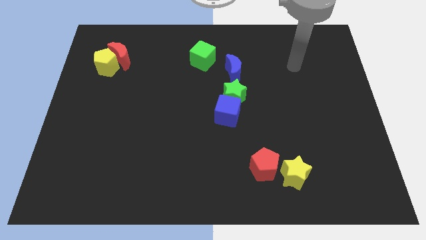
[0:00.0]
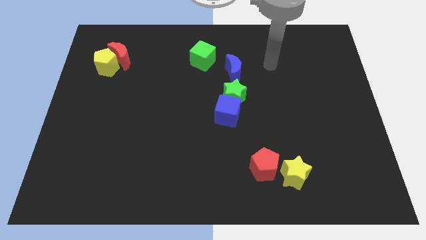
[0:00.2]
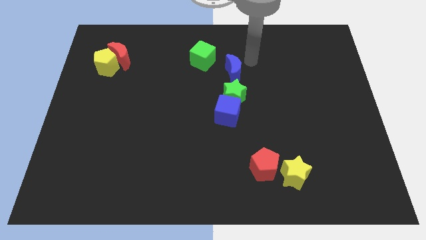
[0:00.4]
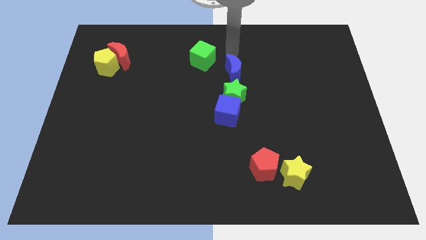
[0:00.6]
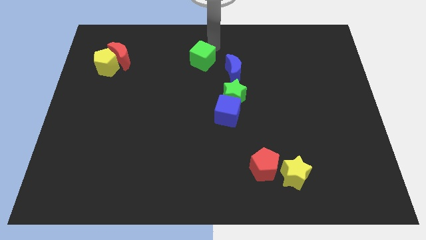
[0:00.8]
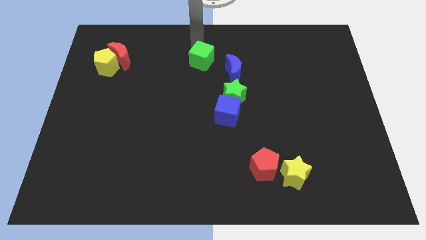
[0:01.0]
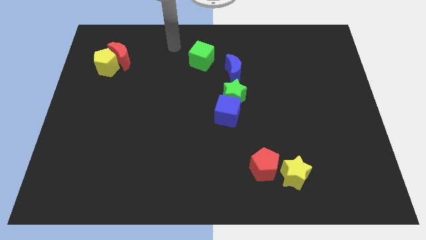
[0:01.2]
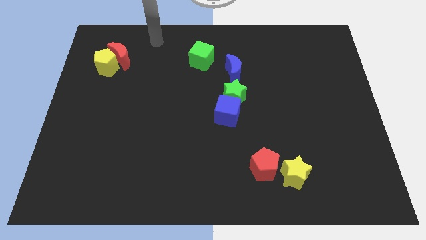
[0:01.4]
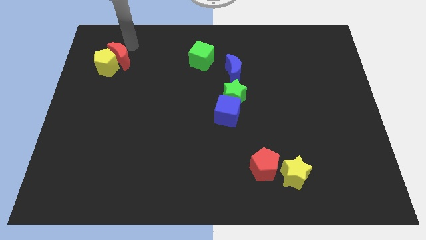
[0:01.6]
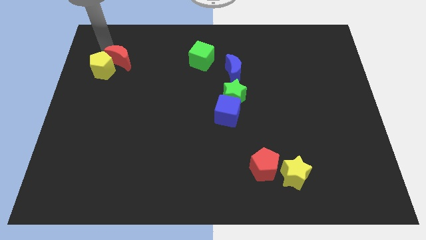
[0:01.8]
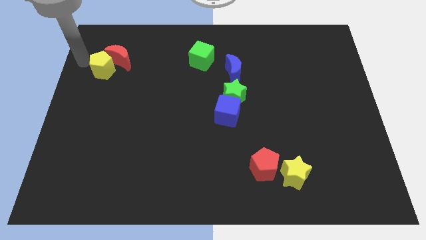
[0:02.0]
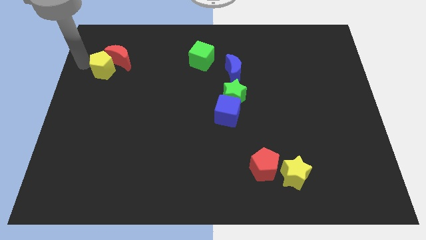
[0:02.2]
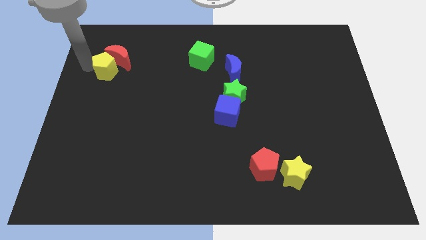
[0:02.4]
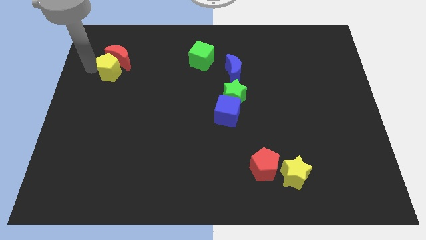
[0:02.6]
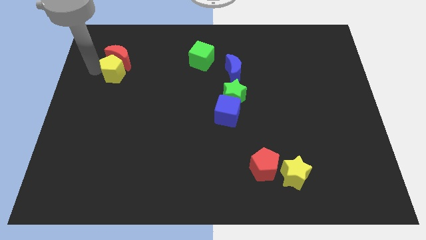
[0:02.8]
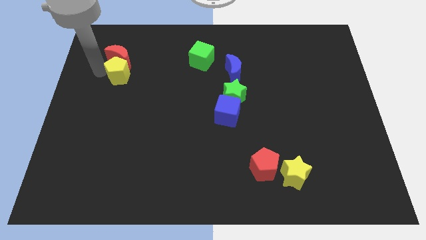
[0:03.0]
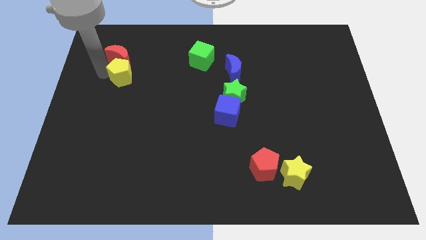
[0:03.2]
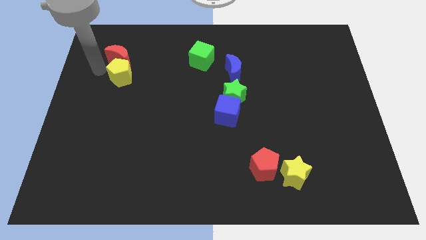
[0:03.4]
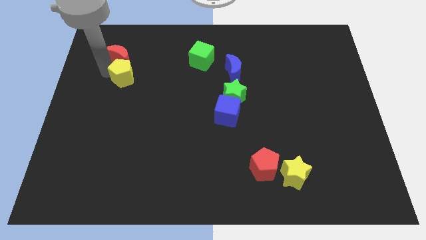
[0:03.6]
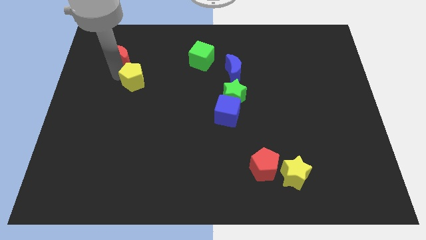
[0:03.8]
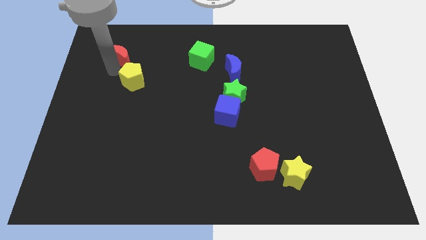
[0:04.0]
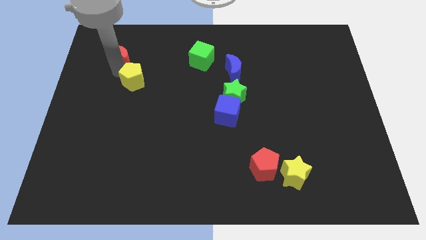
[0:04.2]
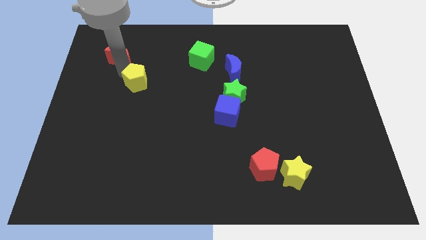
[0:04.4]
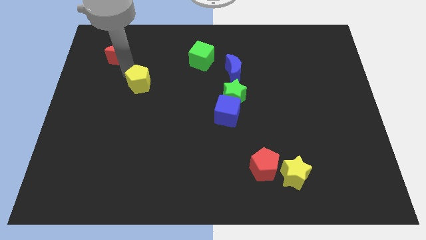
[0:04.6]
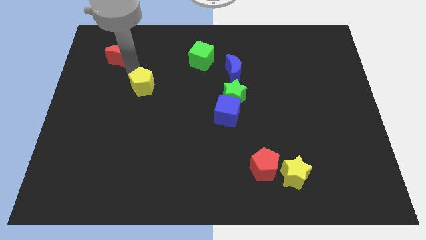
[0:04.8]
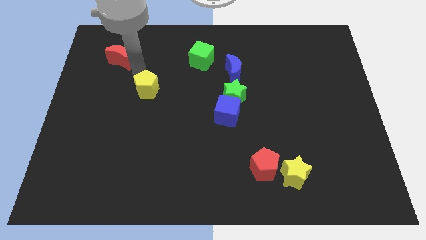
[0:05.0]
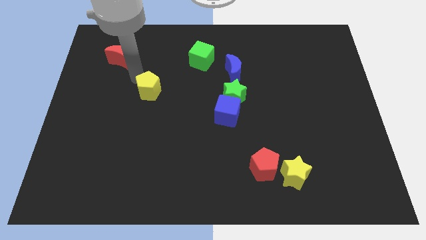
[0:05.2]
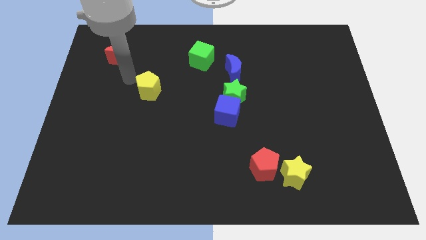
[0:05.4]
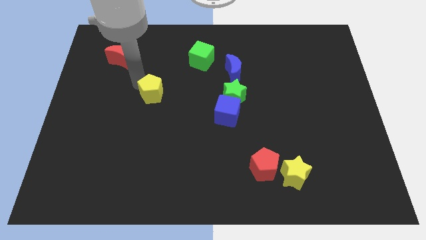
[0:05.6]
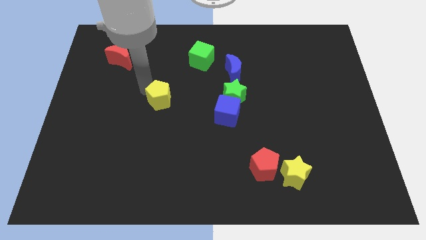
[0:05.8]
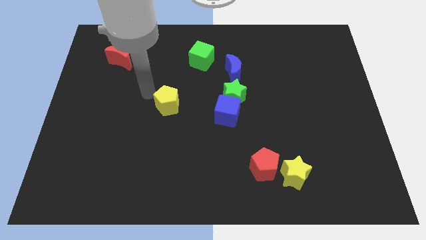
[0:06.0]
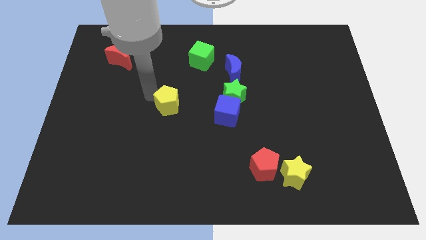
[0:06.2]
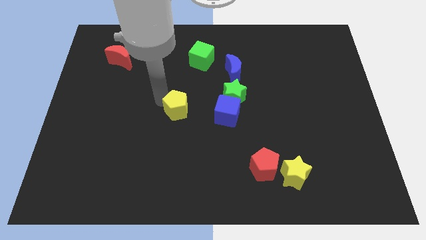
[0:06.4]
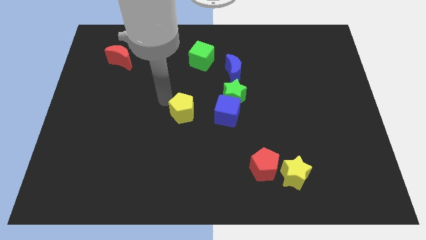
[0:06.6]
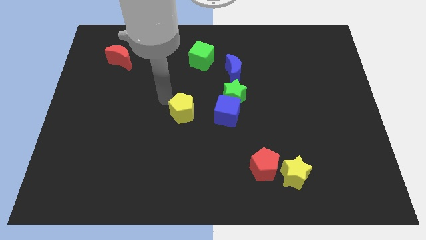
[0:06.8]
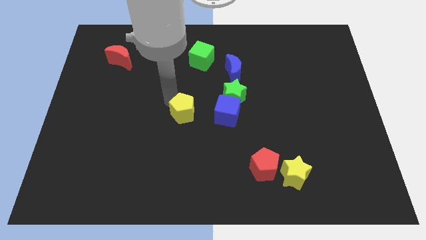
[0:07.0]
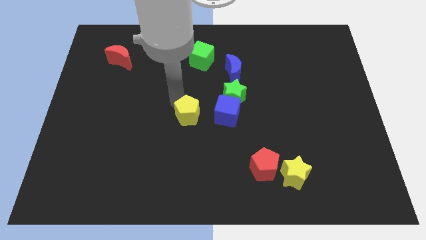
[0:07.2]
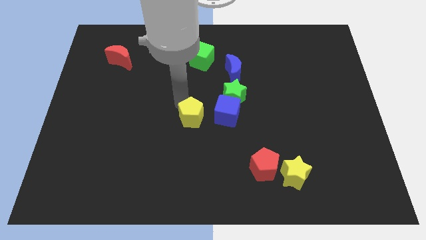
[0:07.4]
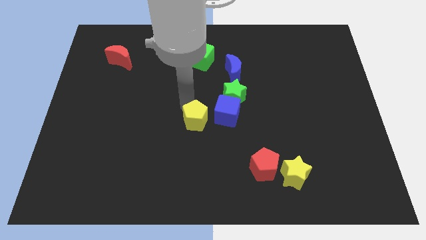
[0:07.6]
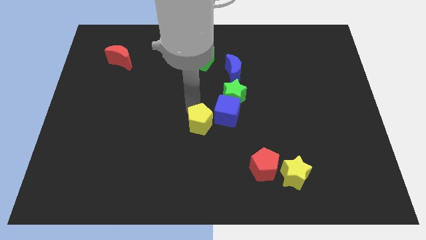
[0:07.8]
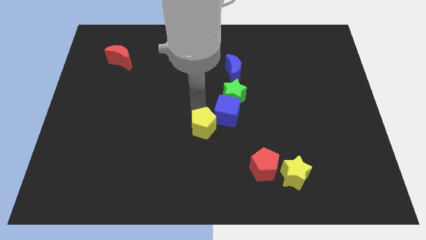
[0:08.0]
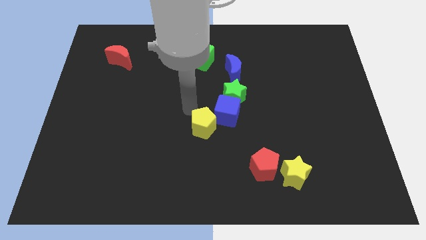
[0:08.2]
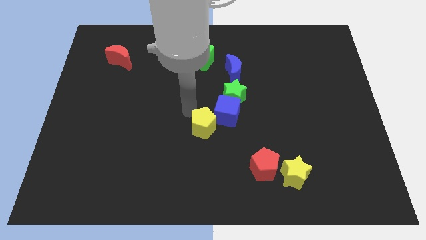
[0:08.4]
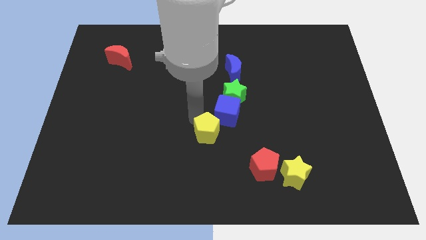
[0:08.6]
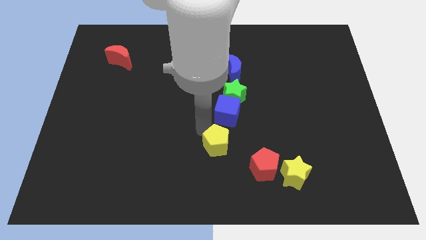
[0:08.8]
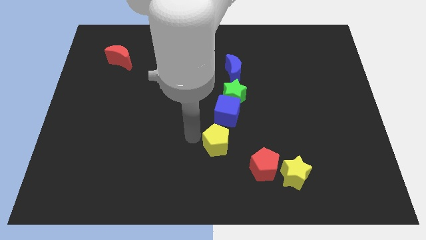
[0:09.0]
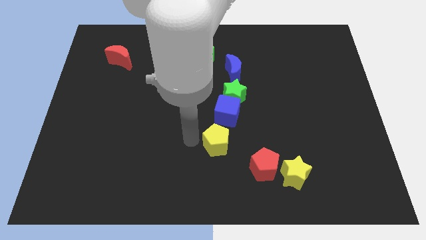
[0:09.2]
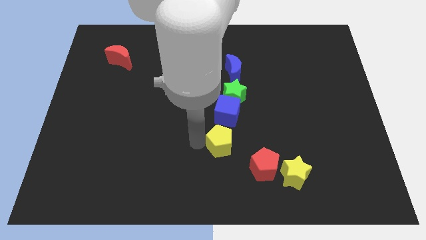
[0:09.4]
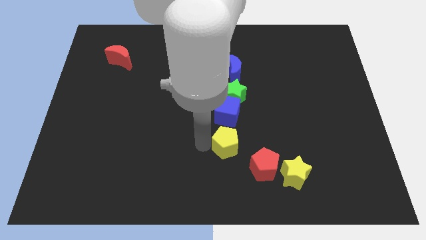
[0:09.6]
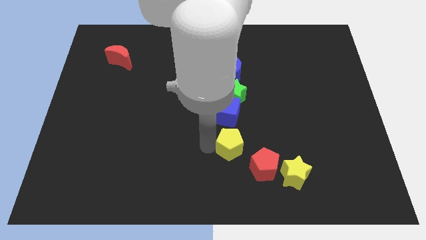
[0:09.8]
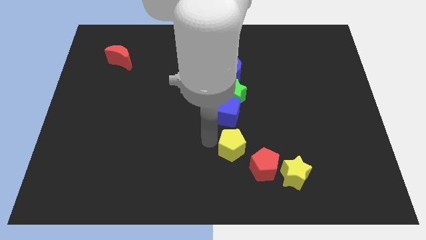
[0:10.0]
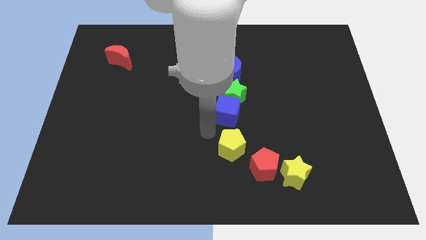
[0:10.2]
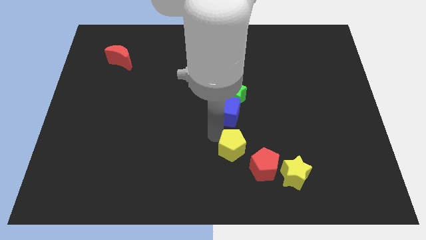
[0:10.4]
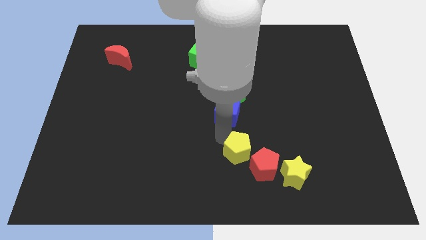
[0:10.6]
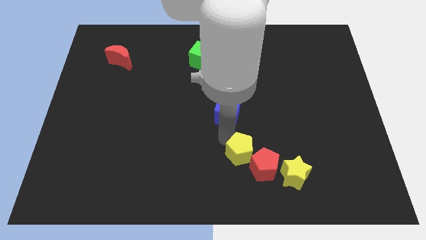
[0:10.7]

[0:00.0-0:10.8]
push the yellow pentagon towards the red pentagon

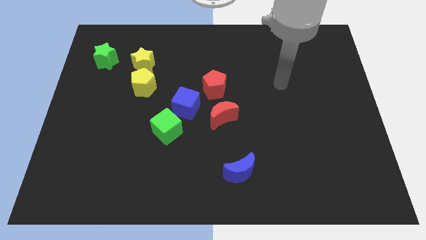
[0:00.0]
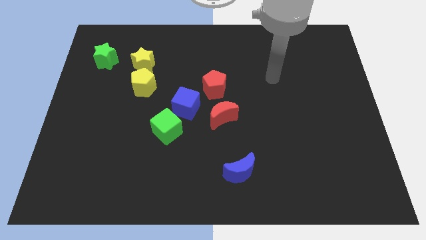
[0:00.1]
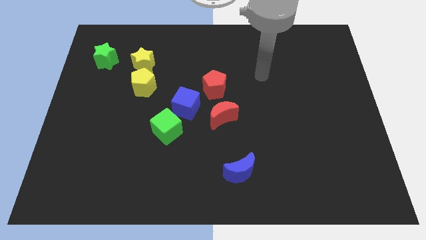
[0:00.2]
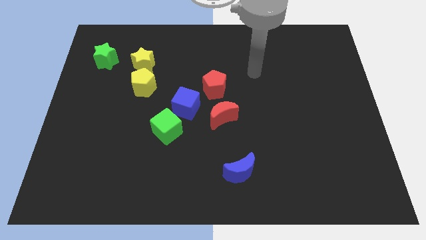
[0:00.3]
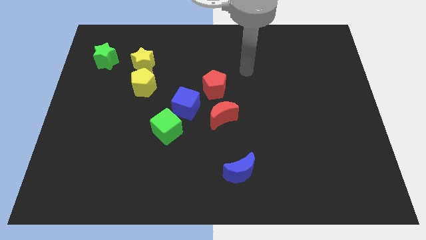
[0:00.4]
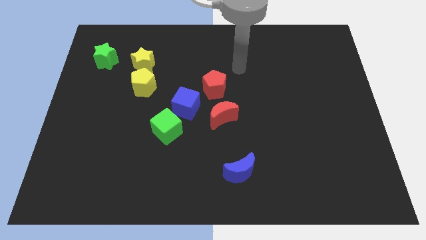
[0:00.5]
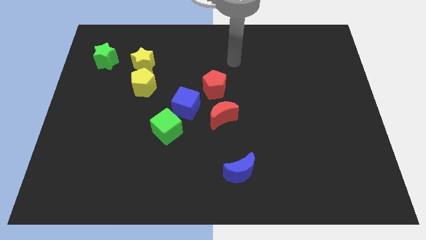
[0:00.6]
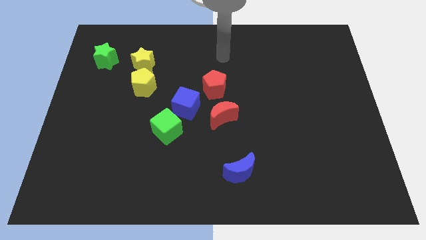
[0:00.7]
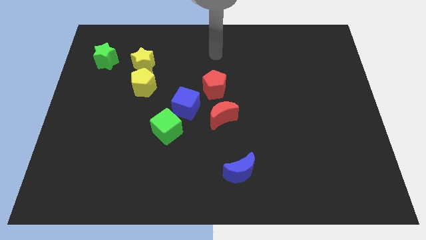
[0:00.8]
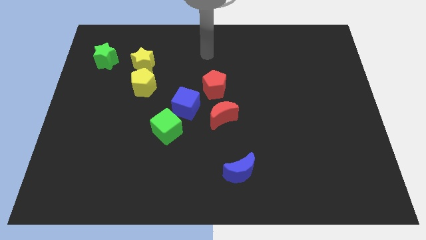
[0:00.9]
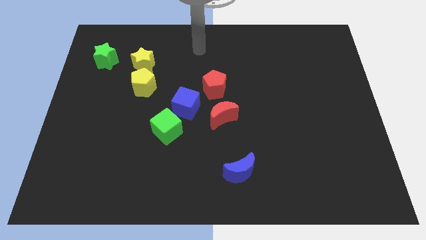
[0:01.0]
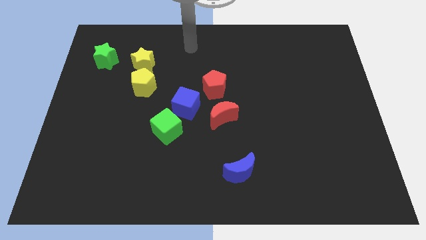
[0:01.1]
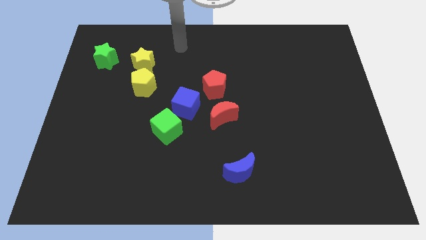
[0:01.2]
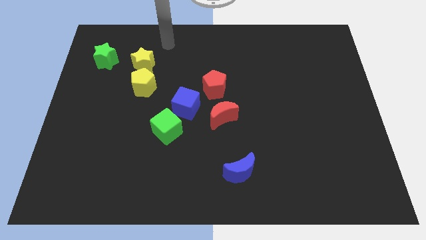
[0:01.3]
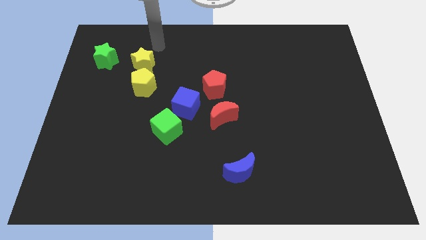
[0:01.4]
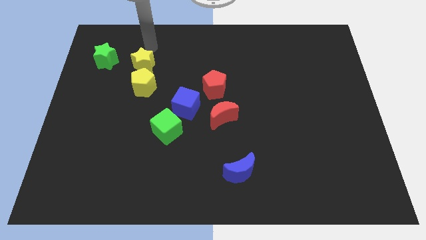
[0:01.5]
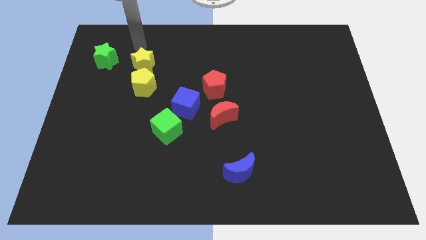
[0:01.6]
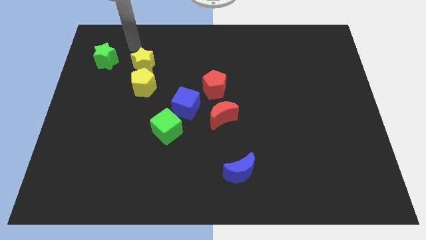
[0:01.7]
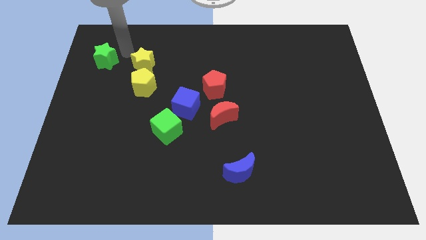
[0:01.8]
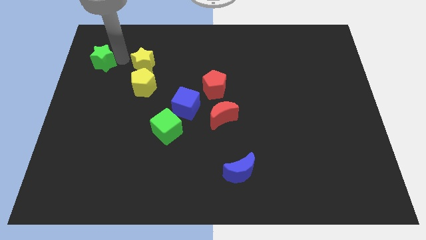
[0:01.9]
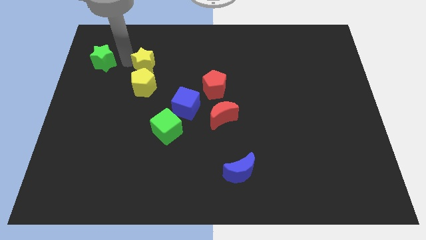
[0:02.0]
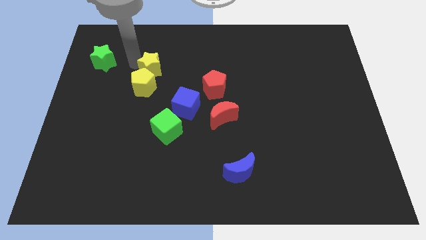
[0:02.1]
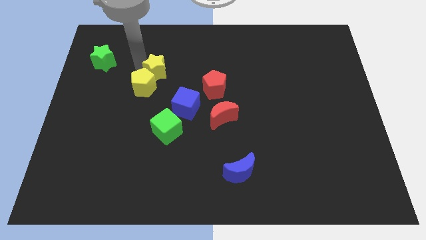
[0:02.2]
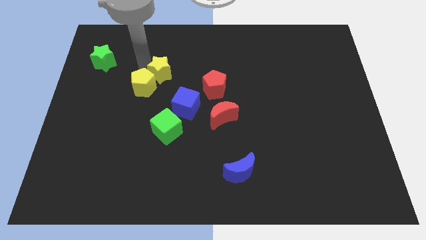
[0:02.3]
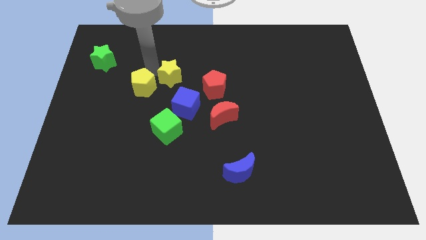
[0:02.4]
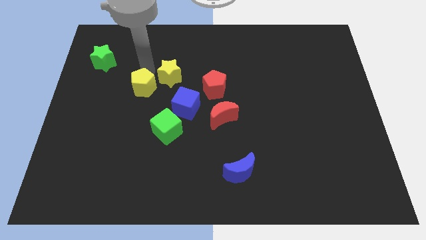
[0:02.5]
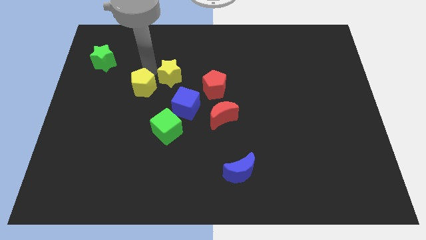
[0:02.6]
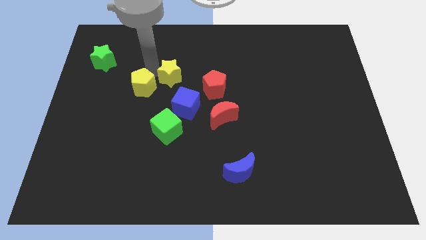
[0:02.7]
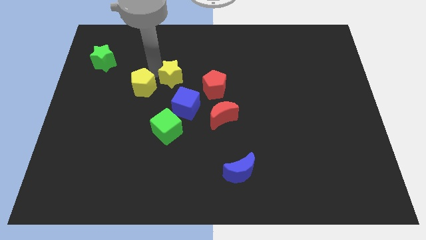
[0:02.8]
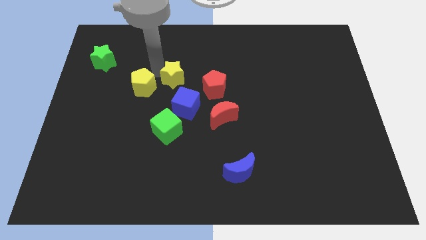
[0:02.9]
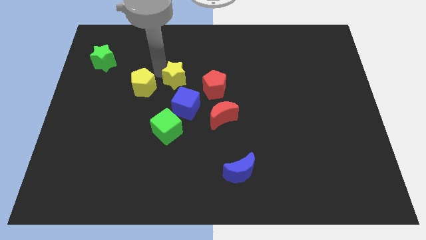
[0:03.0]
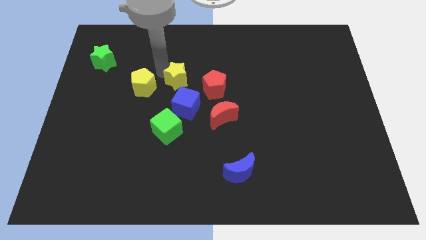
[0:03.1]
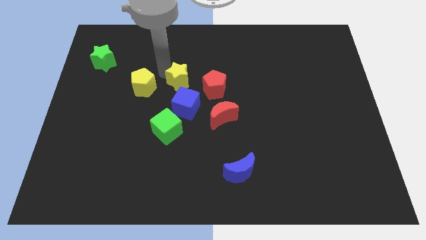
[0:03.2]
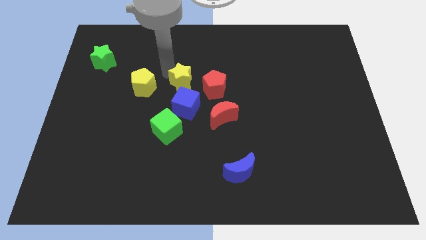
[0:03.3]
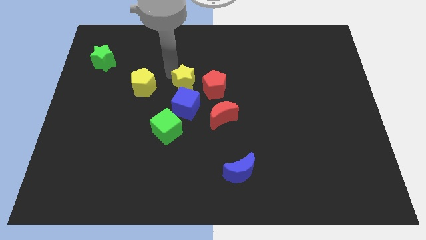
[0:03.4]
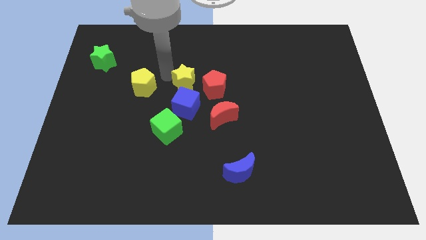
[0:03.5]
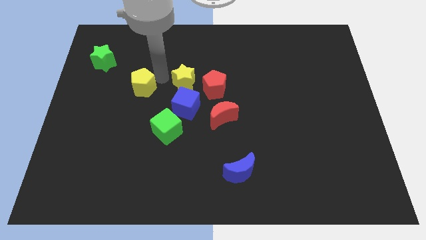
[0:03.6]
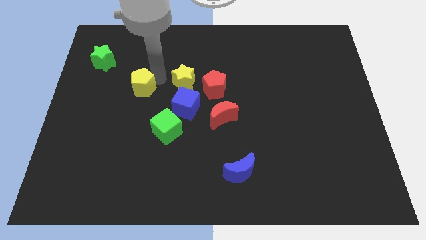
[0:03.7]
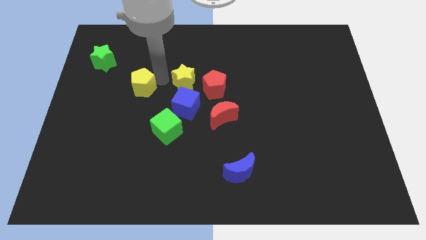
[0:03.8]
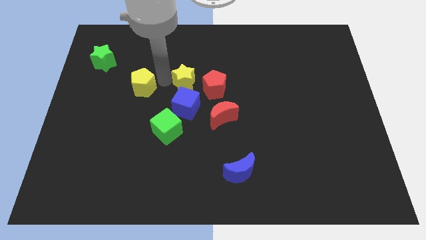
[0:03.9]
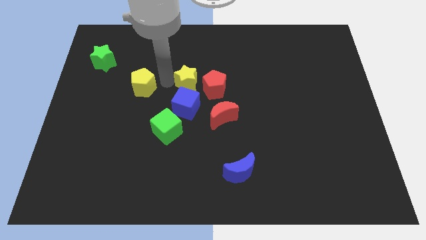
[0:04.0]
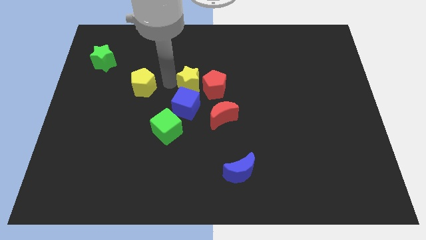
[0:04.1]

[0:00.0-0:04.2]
move the yellow star towards the red pentagon
